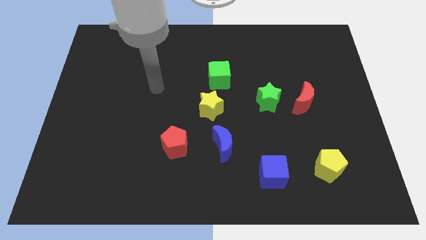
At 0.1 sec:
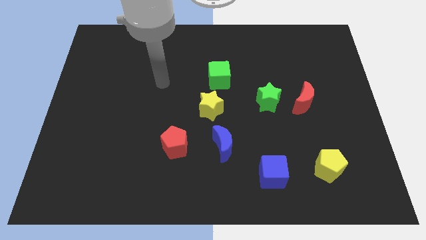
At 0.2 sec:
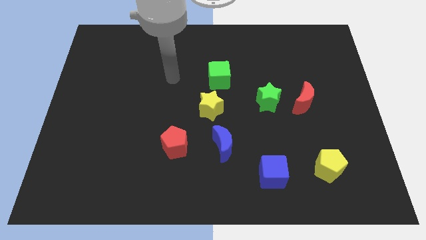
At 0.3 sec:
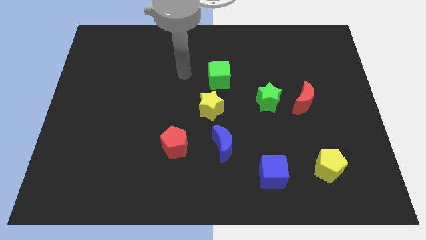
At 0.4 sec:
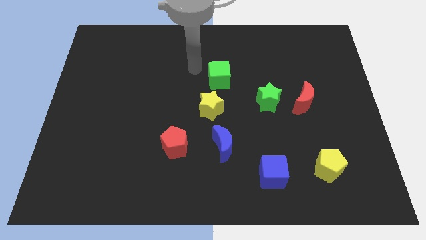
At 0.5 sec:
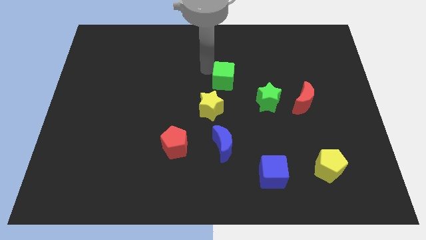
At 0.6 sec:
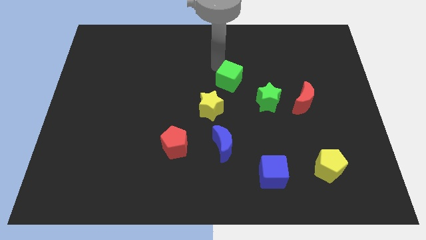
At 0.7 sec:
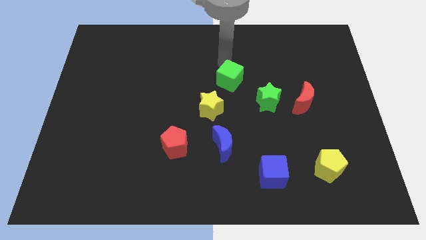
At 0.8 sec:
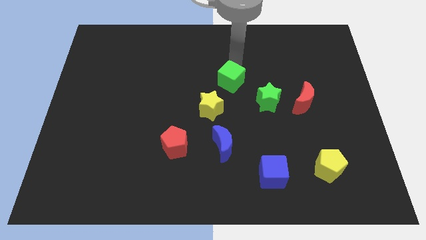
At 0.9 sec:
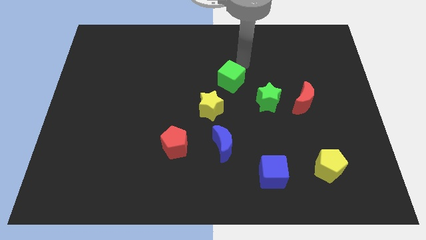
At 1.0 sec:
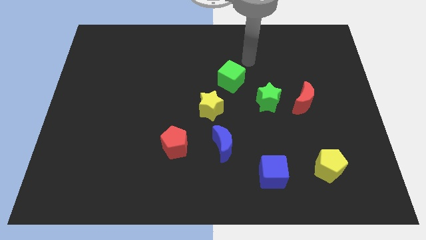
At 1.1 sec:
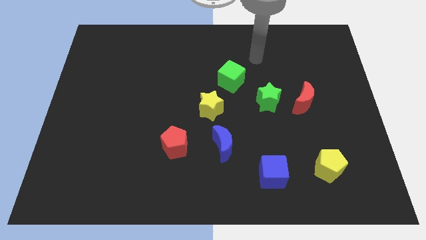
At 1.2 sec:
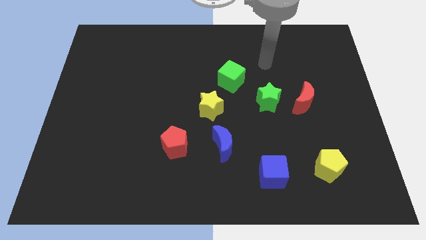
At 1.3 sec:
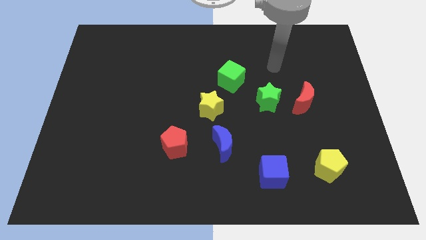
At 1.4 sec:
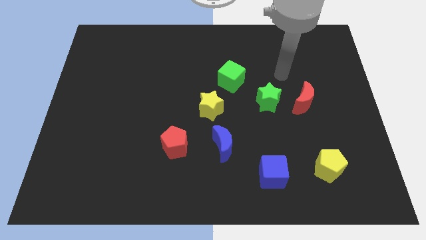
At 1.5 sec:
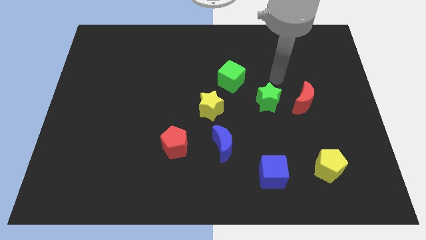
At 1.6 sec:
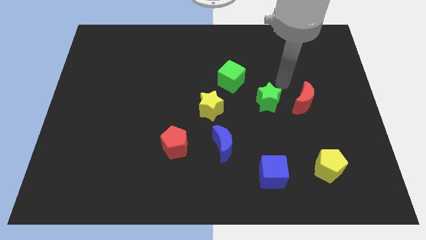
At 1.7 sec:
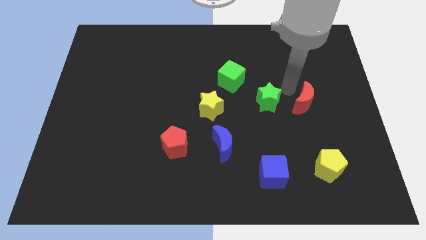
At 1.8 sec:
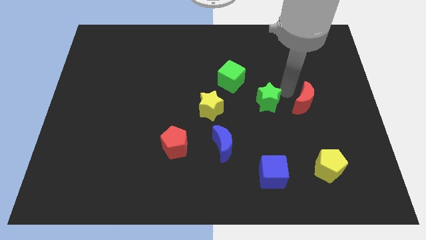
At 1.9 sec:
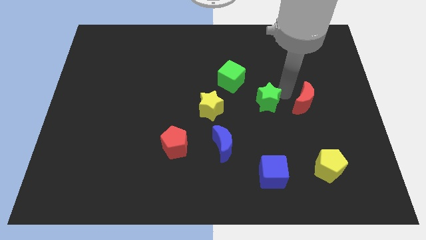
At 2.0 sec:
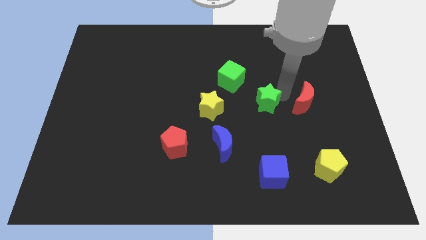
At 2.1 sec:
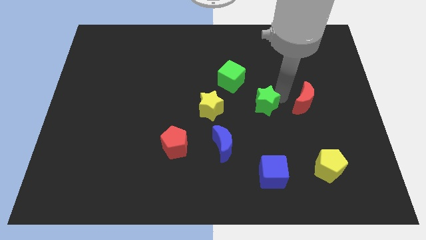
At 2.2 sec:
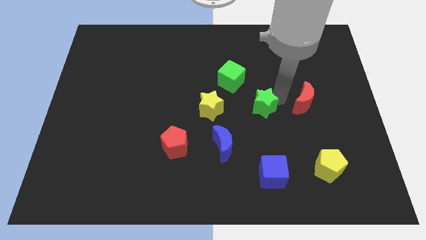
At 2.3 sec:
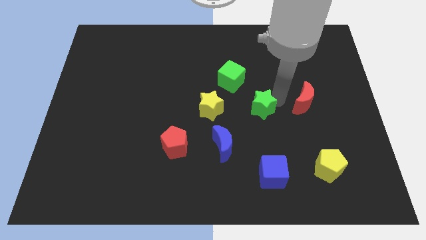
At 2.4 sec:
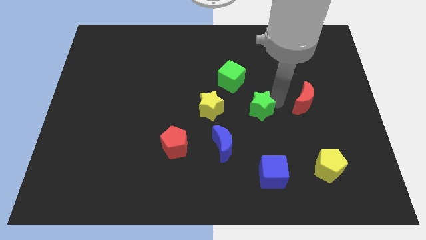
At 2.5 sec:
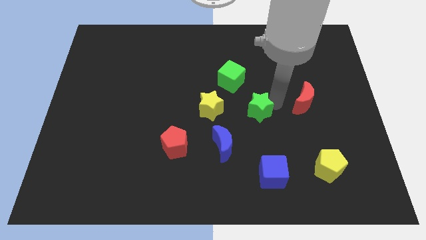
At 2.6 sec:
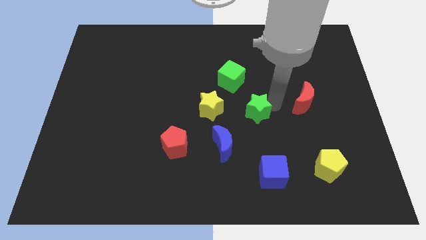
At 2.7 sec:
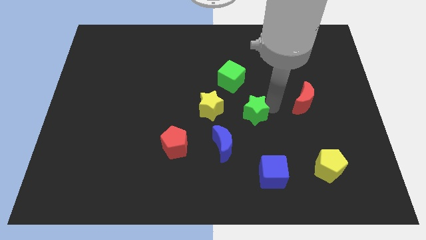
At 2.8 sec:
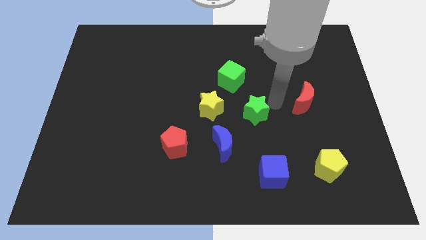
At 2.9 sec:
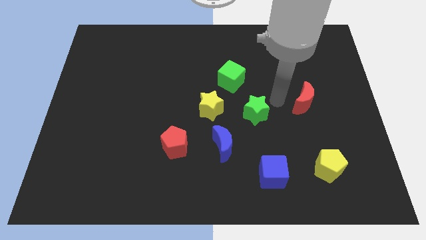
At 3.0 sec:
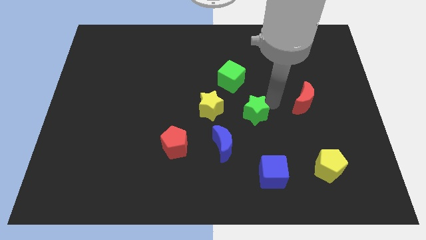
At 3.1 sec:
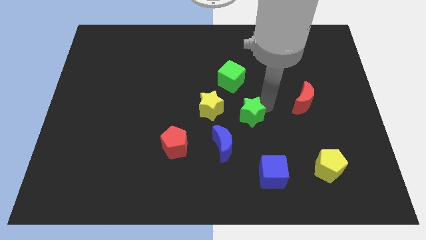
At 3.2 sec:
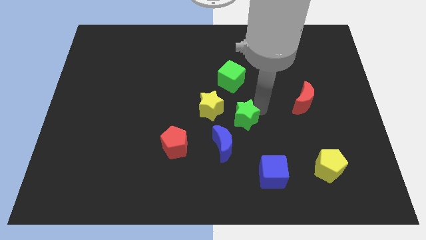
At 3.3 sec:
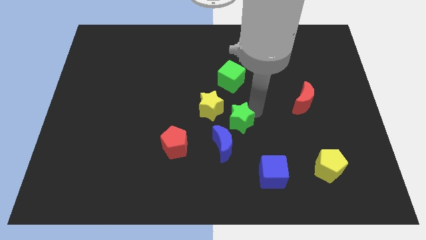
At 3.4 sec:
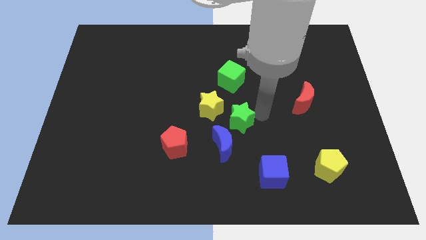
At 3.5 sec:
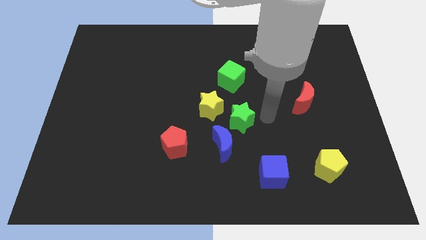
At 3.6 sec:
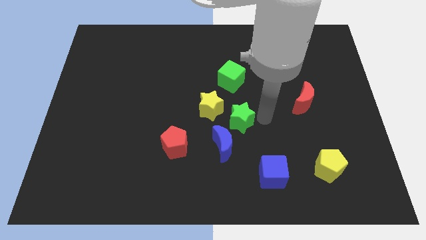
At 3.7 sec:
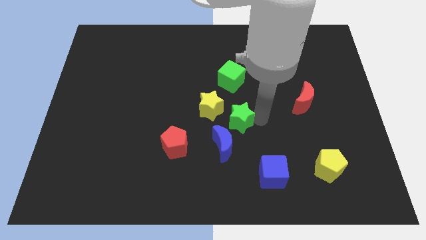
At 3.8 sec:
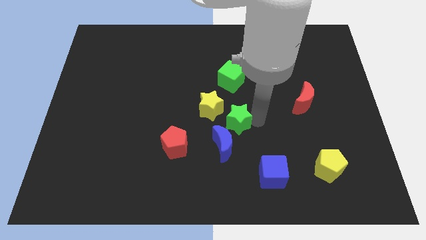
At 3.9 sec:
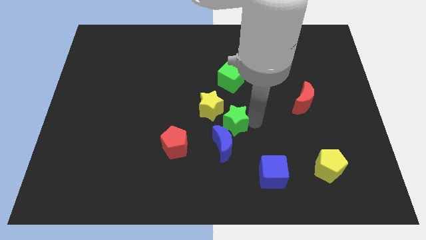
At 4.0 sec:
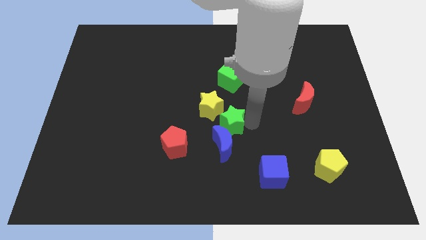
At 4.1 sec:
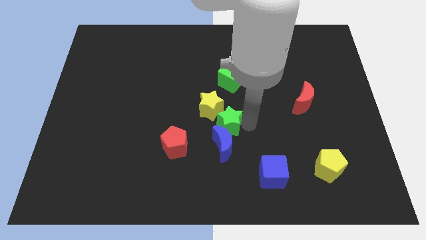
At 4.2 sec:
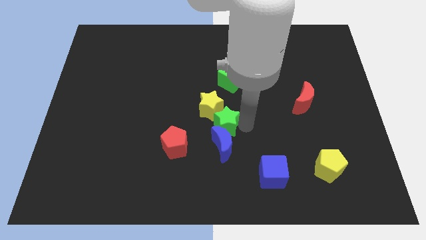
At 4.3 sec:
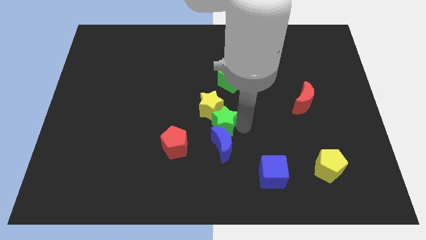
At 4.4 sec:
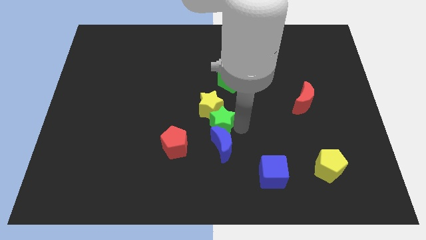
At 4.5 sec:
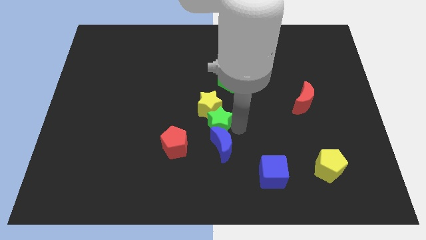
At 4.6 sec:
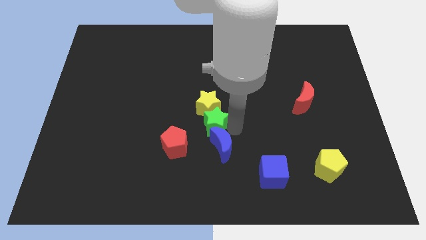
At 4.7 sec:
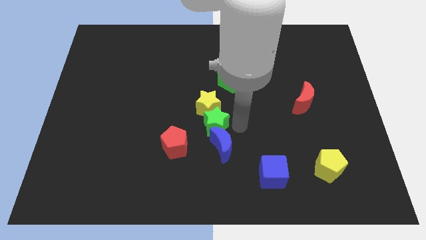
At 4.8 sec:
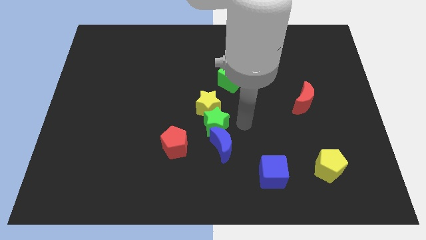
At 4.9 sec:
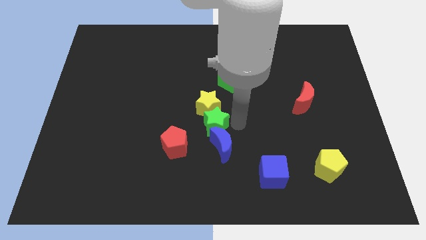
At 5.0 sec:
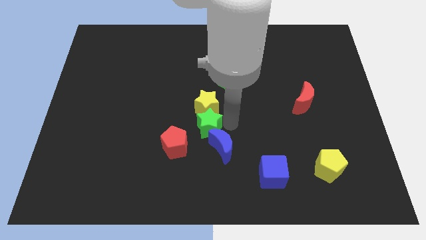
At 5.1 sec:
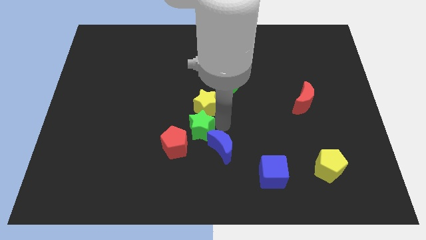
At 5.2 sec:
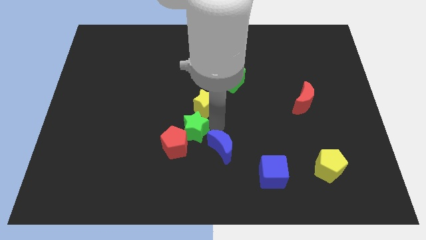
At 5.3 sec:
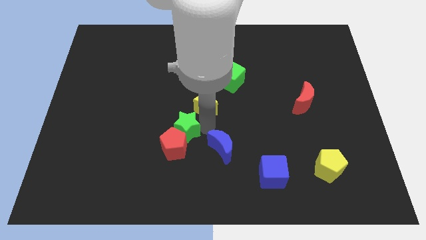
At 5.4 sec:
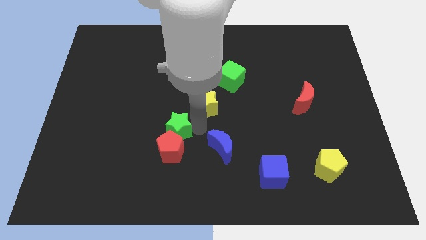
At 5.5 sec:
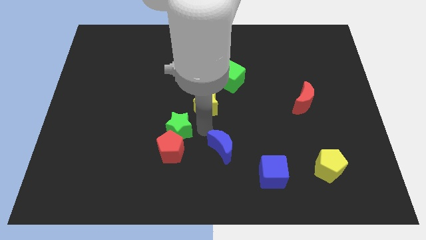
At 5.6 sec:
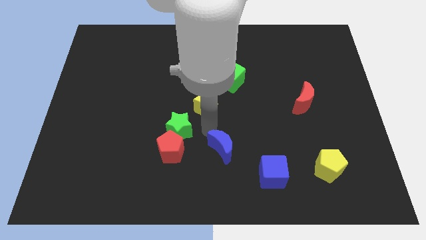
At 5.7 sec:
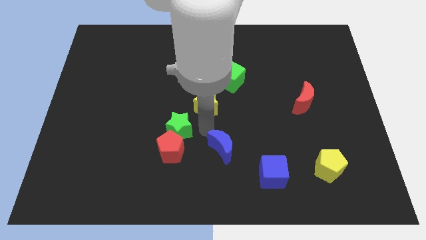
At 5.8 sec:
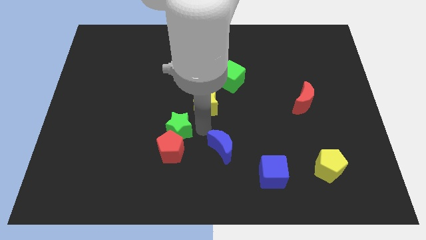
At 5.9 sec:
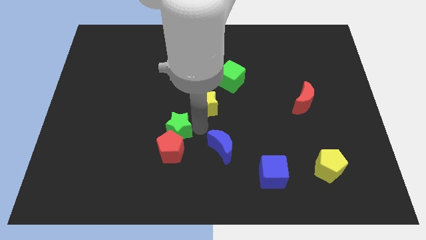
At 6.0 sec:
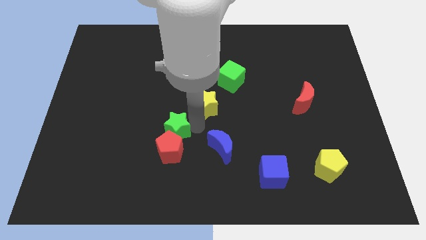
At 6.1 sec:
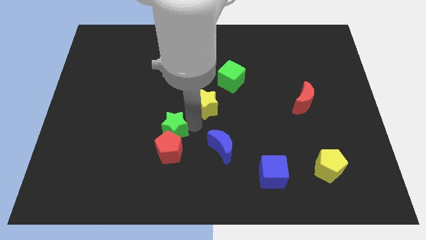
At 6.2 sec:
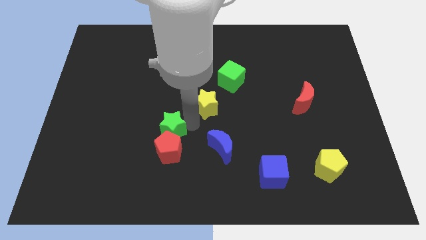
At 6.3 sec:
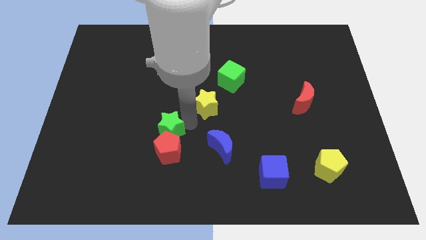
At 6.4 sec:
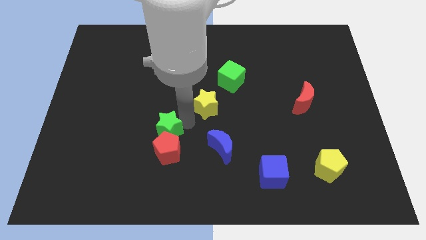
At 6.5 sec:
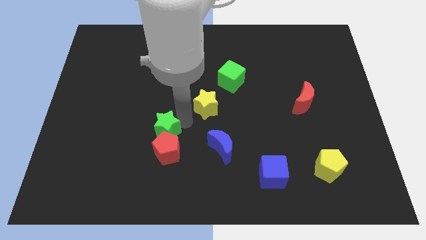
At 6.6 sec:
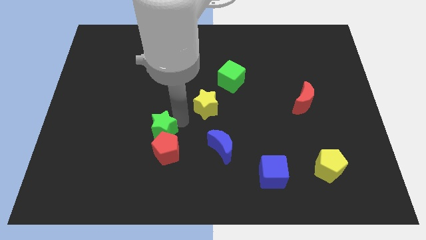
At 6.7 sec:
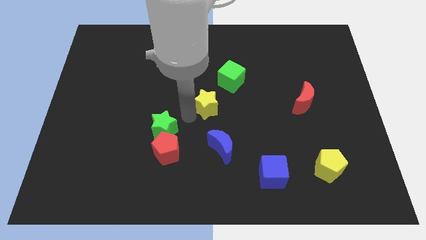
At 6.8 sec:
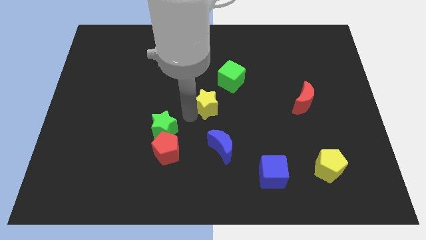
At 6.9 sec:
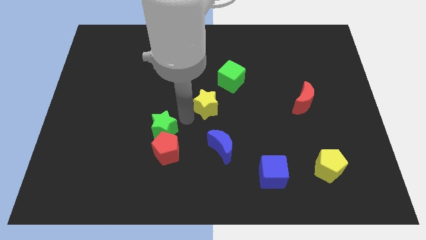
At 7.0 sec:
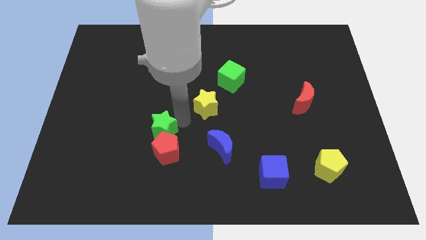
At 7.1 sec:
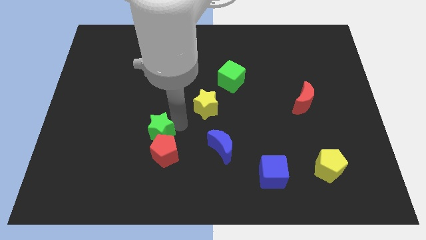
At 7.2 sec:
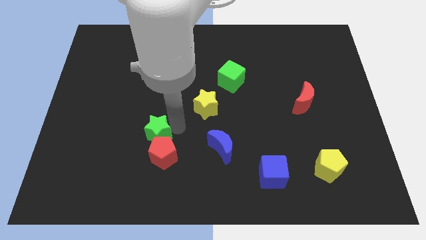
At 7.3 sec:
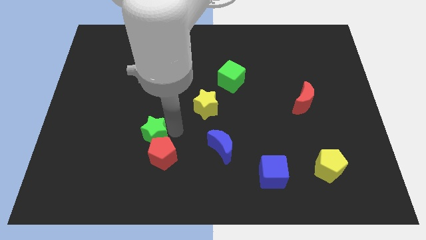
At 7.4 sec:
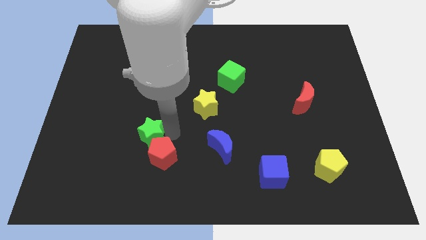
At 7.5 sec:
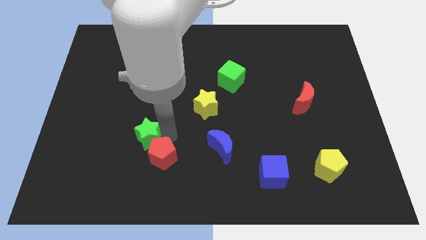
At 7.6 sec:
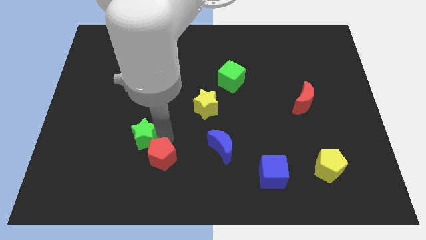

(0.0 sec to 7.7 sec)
push the green star left of the red pentagon
